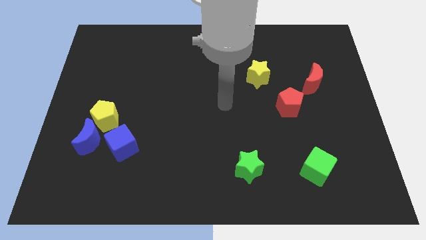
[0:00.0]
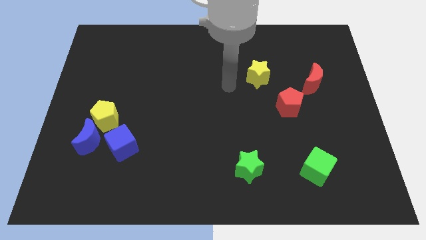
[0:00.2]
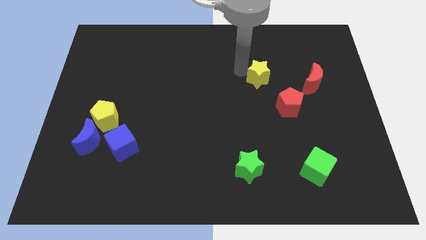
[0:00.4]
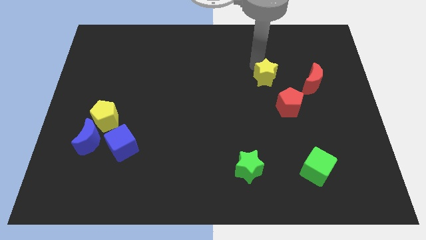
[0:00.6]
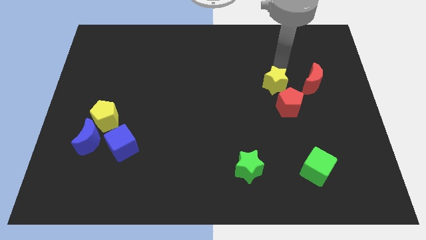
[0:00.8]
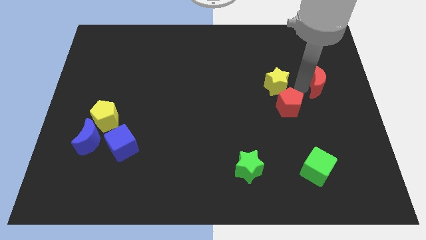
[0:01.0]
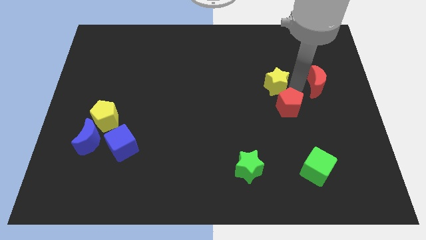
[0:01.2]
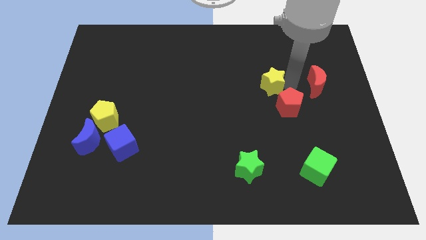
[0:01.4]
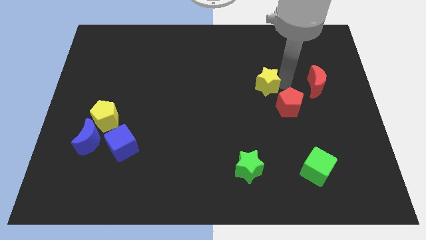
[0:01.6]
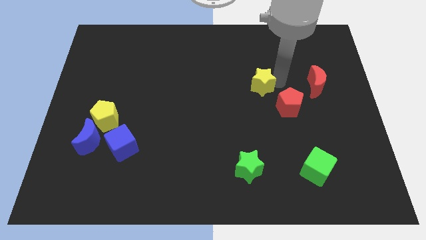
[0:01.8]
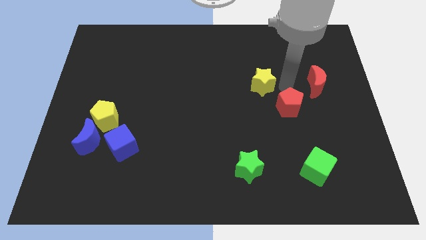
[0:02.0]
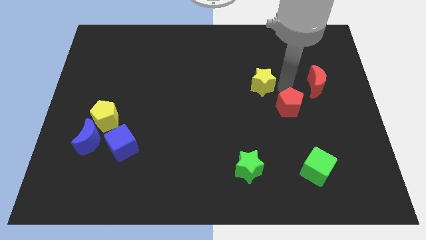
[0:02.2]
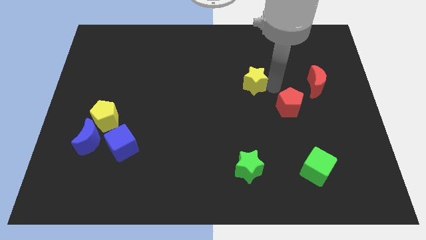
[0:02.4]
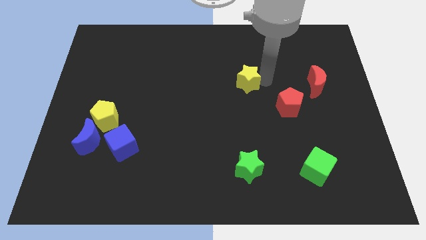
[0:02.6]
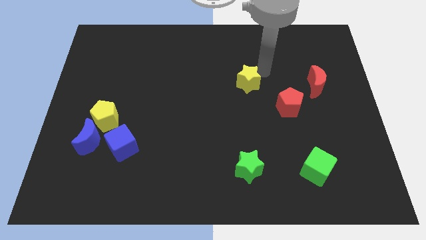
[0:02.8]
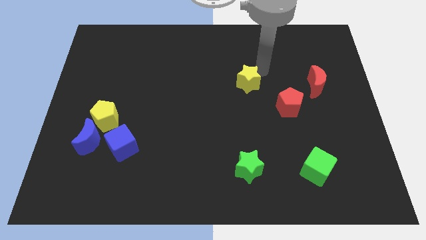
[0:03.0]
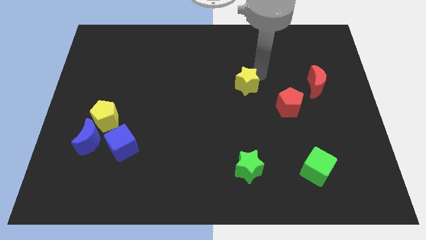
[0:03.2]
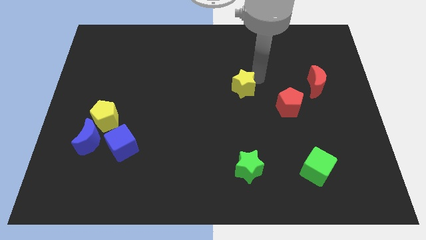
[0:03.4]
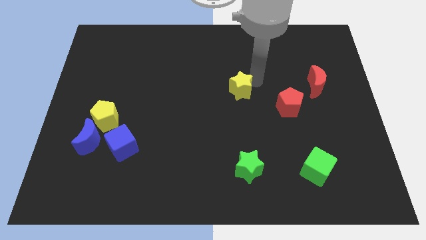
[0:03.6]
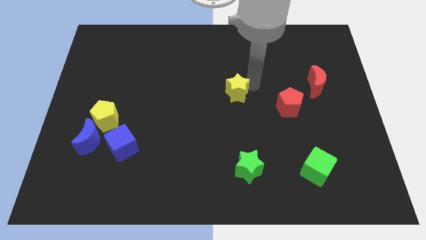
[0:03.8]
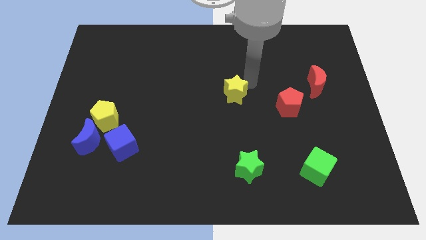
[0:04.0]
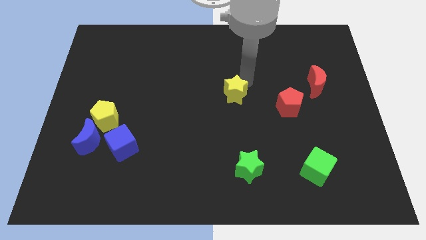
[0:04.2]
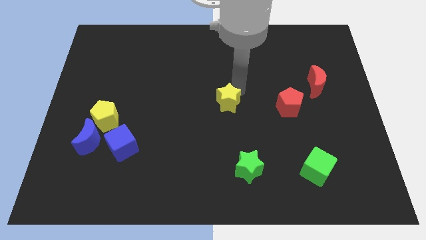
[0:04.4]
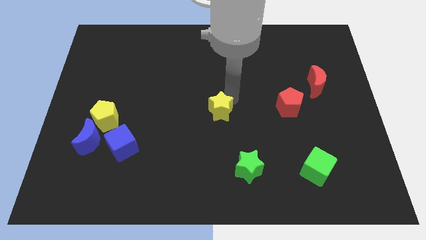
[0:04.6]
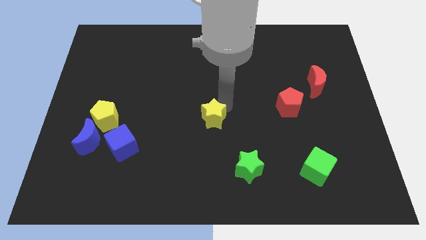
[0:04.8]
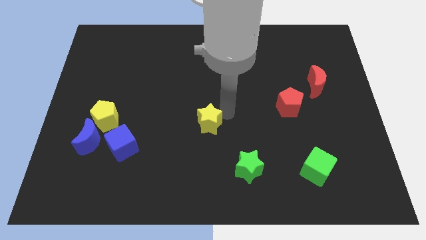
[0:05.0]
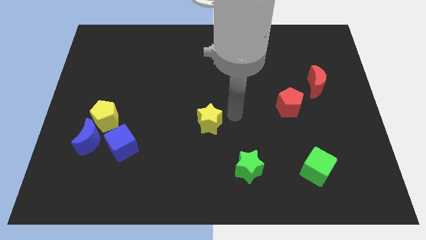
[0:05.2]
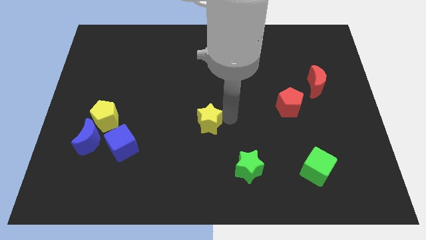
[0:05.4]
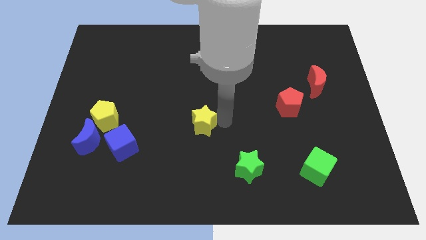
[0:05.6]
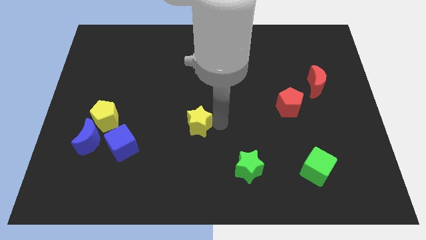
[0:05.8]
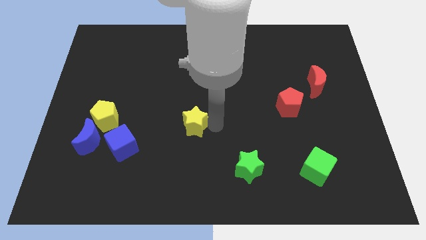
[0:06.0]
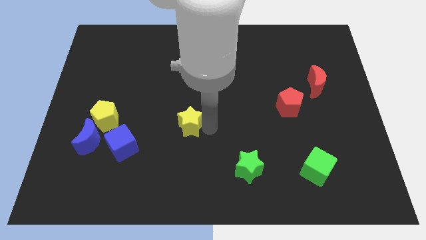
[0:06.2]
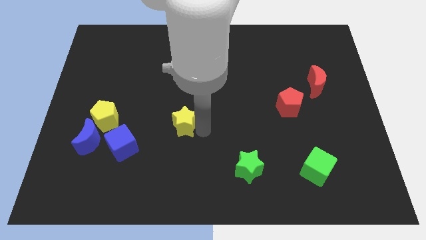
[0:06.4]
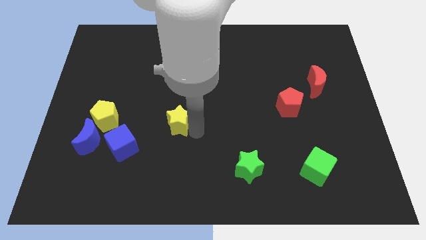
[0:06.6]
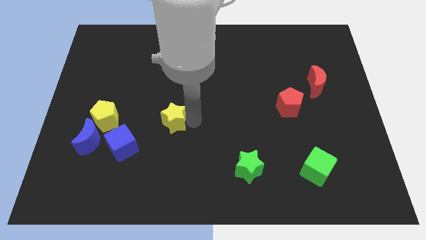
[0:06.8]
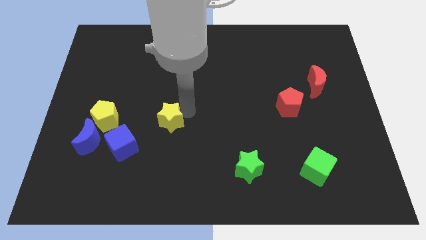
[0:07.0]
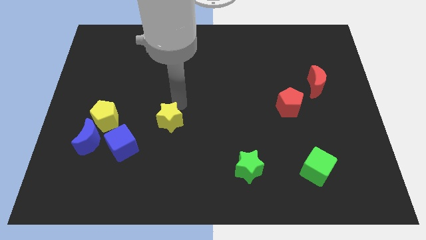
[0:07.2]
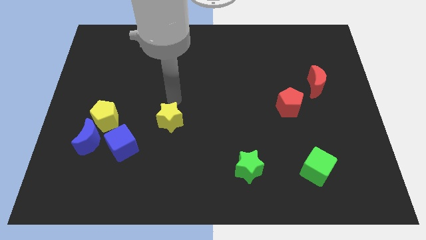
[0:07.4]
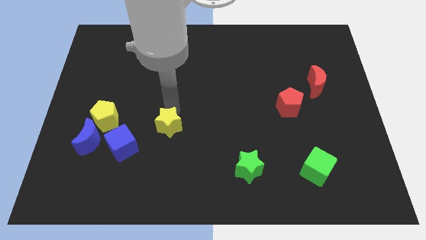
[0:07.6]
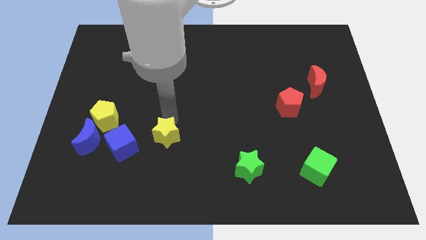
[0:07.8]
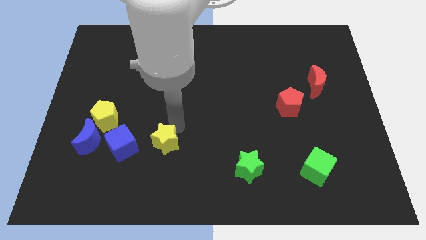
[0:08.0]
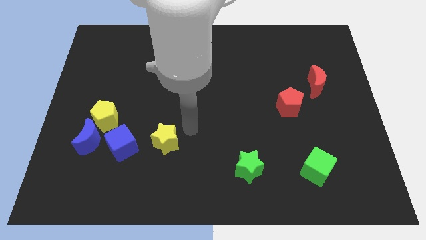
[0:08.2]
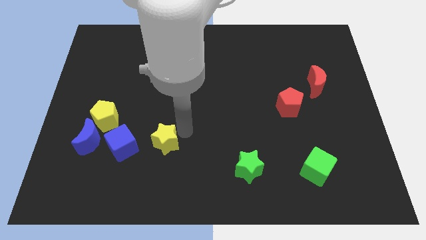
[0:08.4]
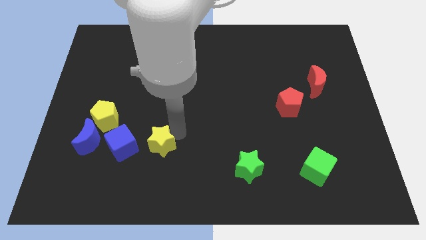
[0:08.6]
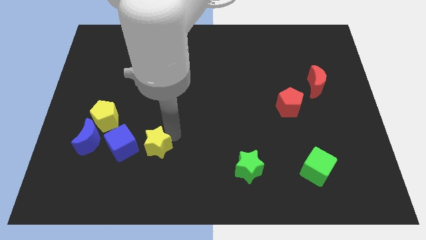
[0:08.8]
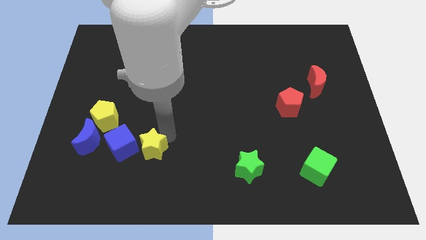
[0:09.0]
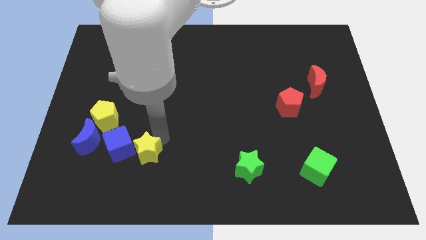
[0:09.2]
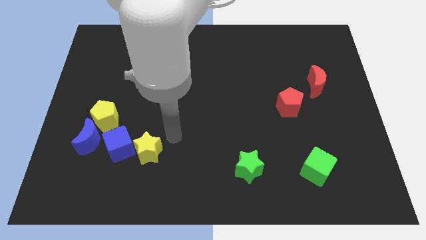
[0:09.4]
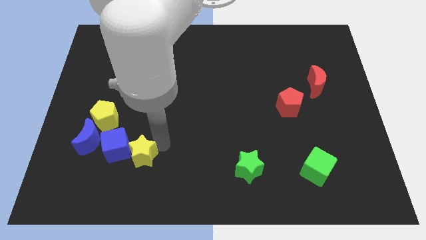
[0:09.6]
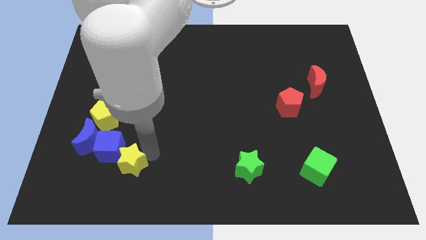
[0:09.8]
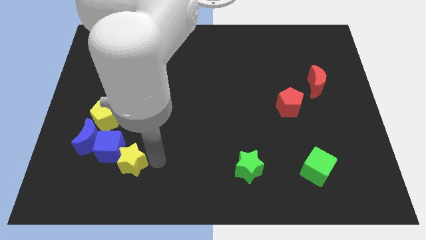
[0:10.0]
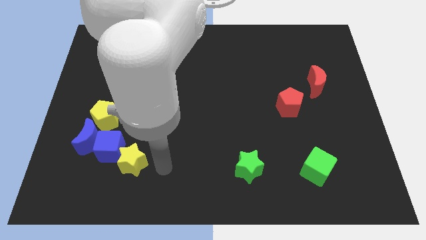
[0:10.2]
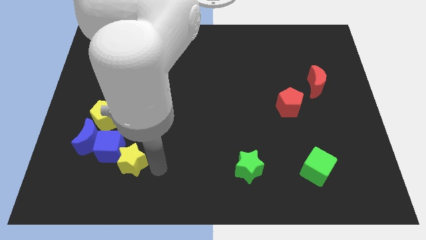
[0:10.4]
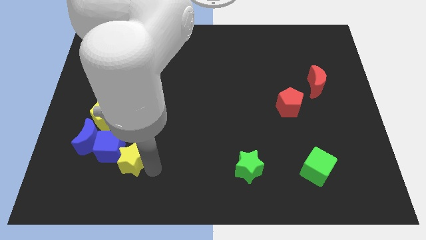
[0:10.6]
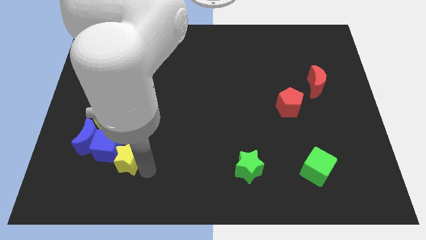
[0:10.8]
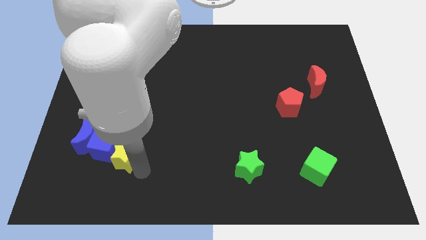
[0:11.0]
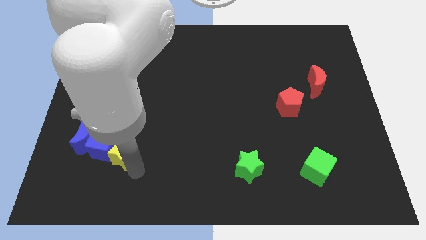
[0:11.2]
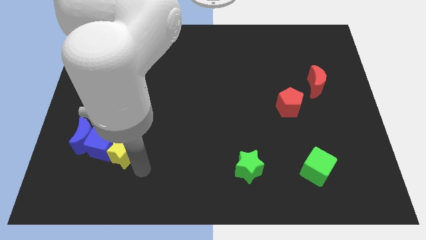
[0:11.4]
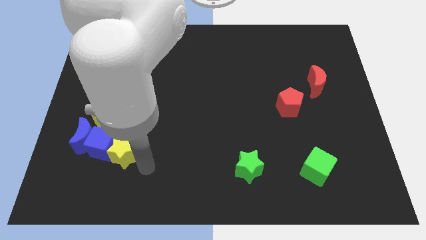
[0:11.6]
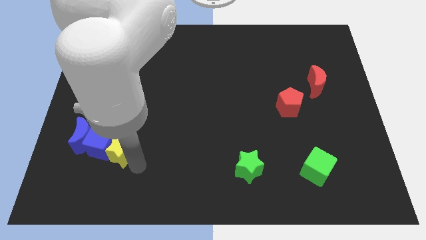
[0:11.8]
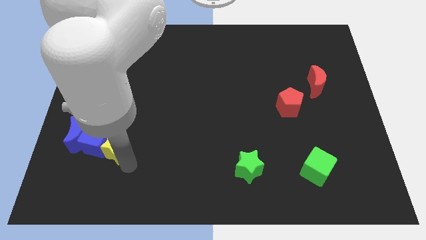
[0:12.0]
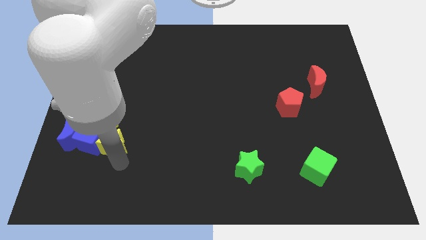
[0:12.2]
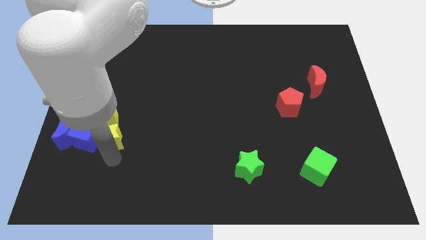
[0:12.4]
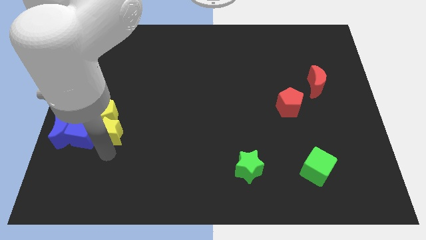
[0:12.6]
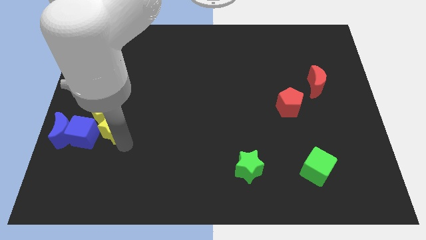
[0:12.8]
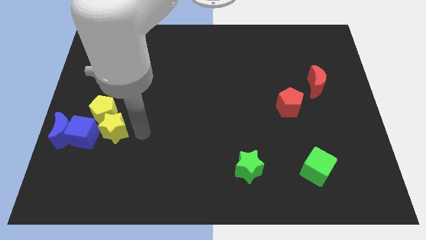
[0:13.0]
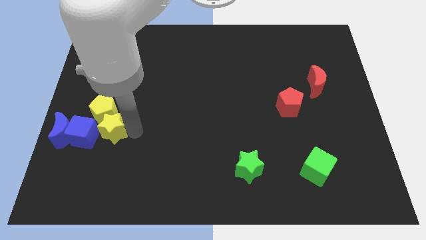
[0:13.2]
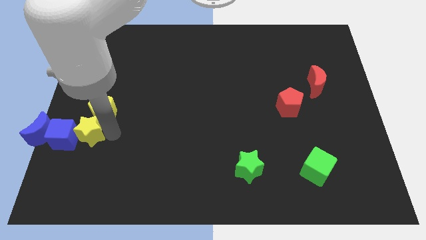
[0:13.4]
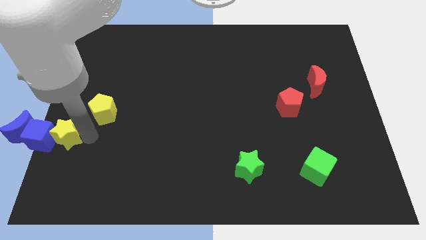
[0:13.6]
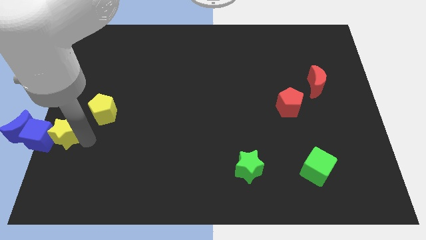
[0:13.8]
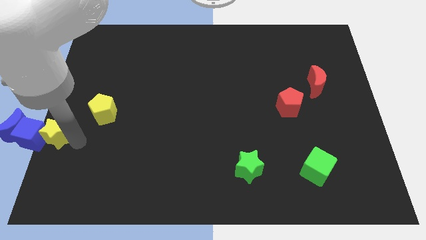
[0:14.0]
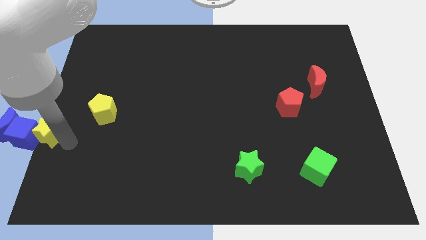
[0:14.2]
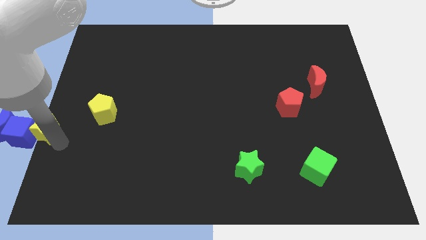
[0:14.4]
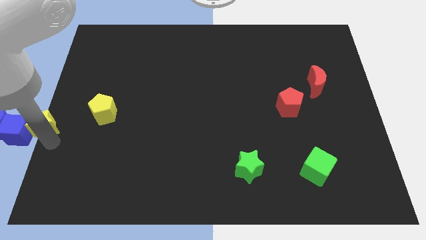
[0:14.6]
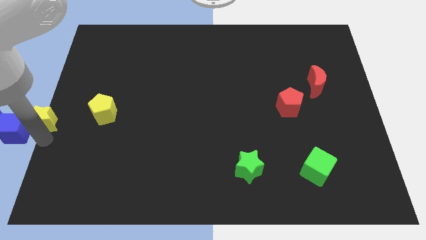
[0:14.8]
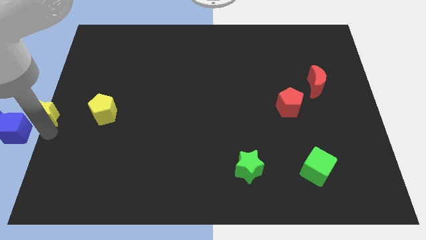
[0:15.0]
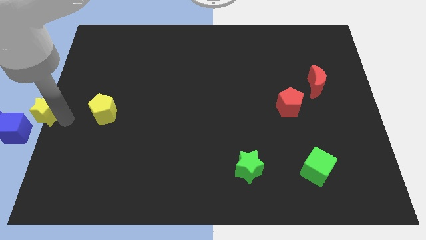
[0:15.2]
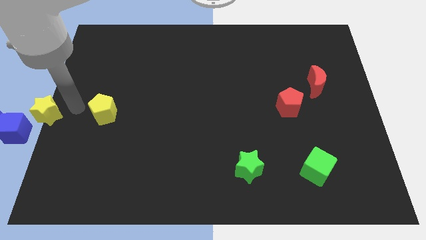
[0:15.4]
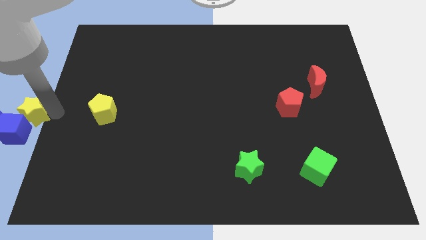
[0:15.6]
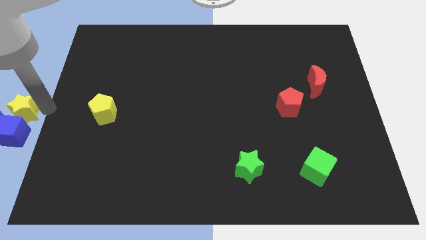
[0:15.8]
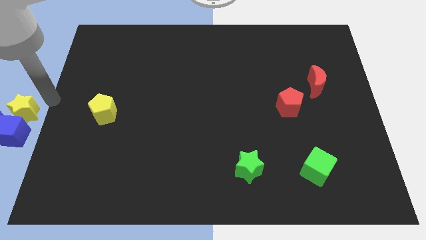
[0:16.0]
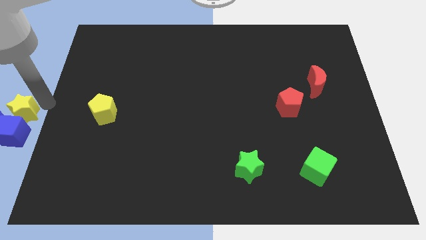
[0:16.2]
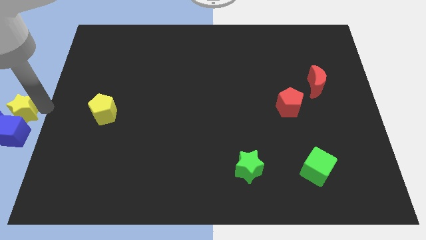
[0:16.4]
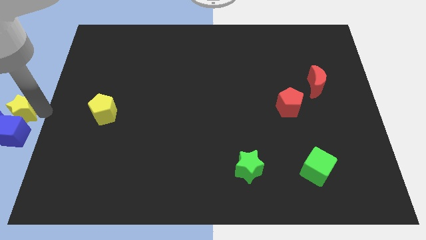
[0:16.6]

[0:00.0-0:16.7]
push the yellow star close to the blue moon

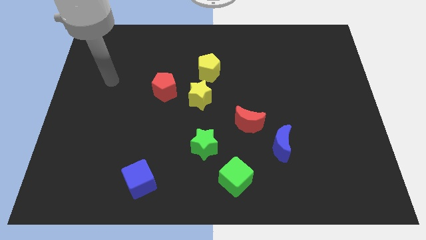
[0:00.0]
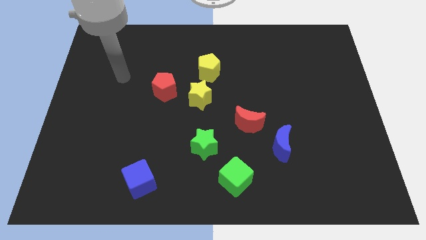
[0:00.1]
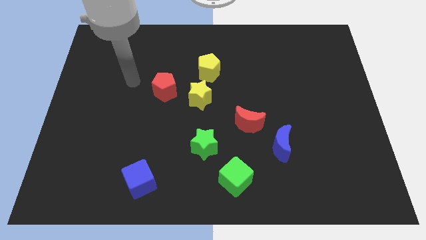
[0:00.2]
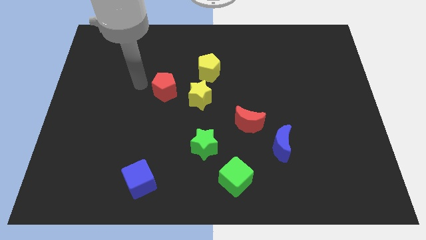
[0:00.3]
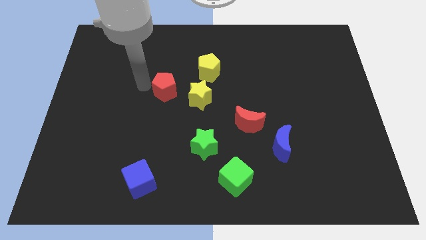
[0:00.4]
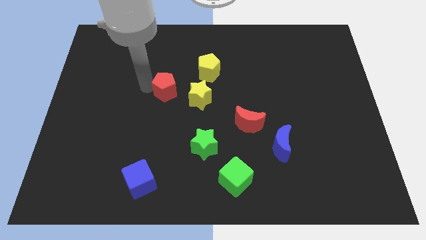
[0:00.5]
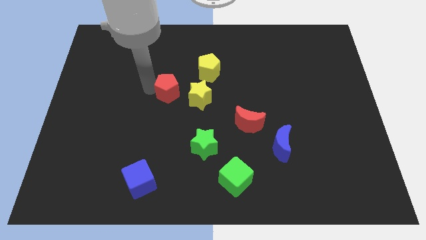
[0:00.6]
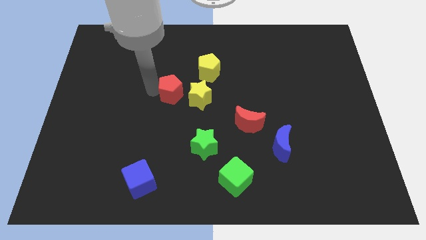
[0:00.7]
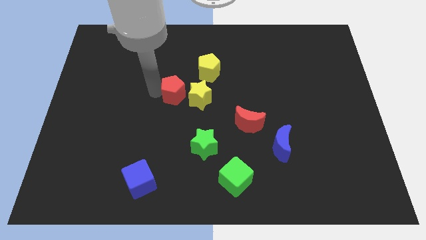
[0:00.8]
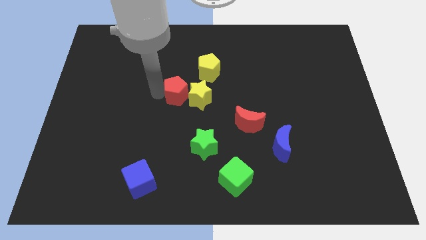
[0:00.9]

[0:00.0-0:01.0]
move the red pentagon next to the yellow star
